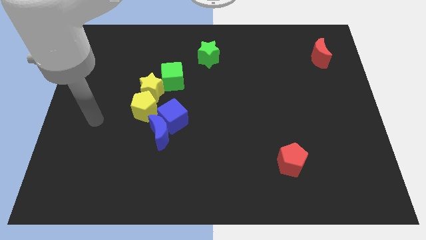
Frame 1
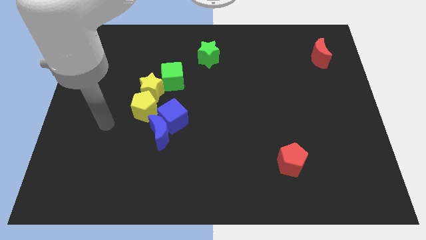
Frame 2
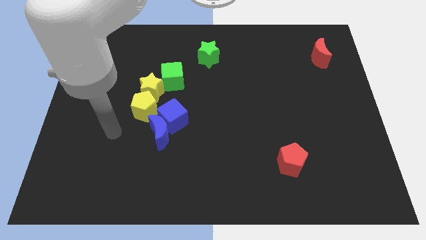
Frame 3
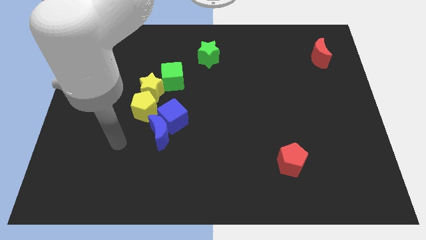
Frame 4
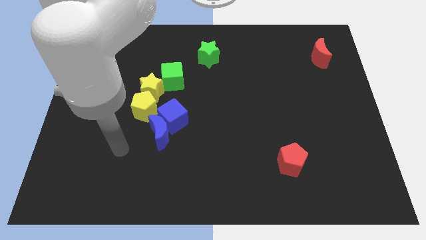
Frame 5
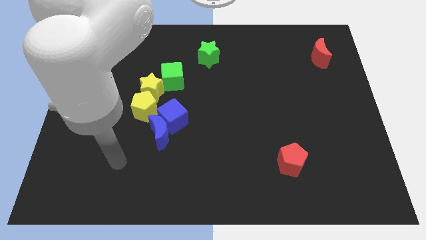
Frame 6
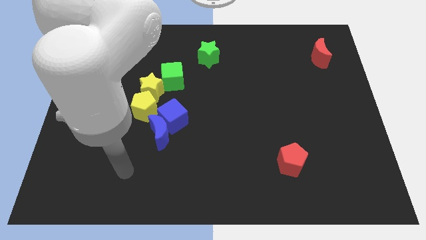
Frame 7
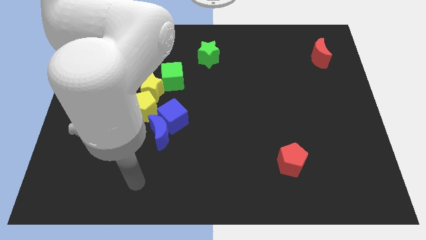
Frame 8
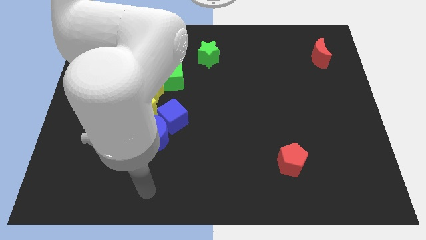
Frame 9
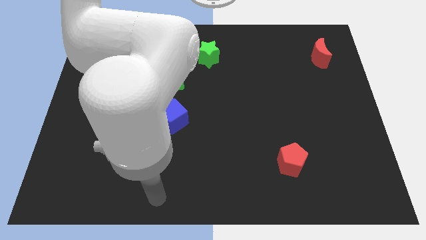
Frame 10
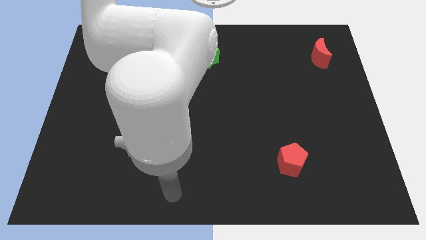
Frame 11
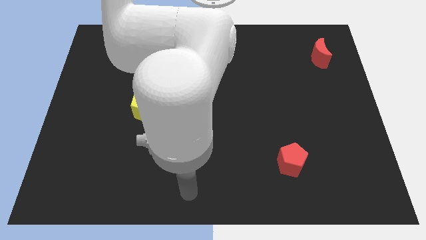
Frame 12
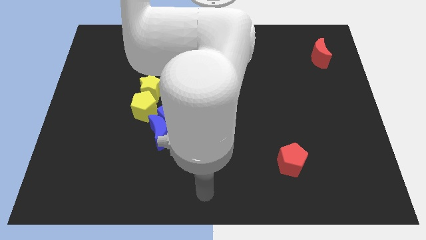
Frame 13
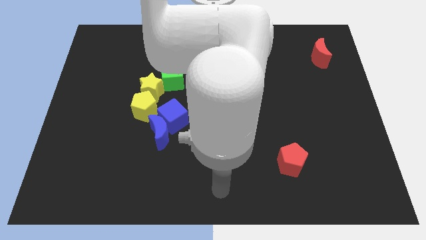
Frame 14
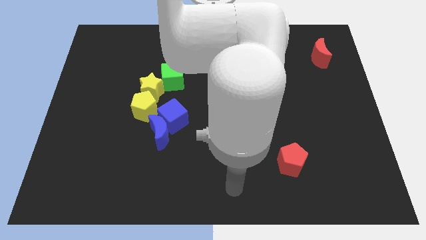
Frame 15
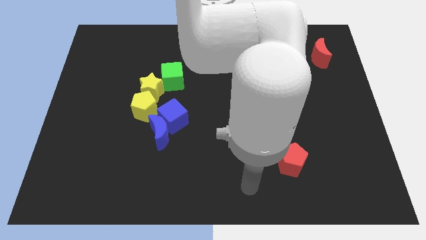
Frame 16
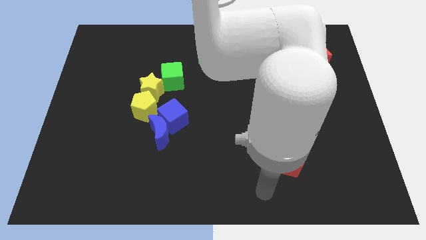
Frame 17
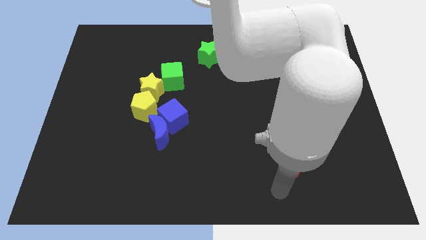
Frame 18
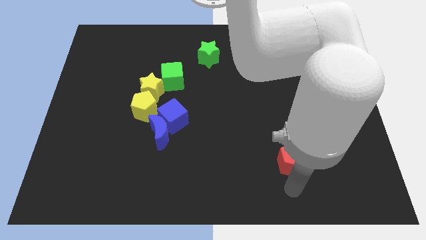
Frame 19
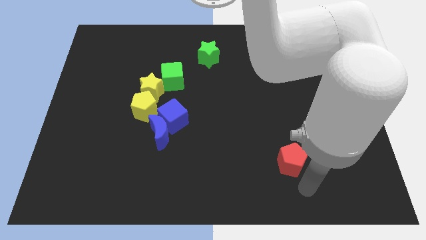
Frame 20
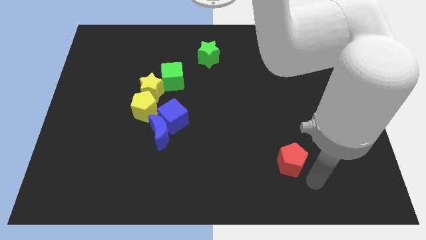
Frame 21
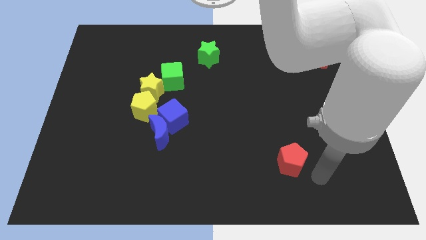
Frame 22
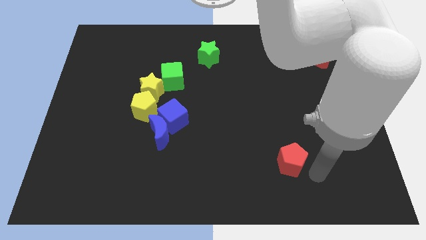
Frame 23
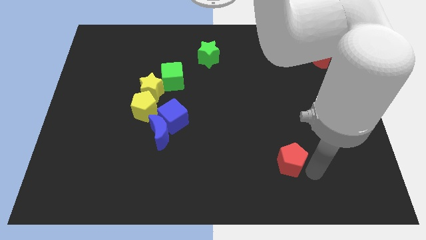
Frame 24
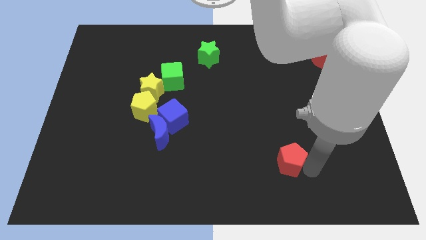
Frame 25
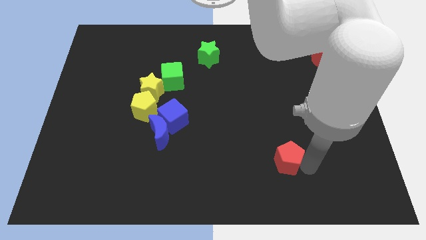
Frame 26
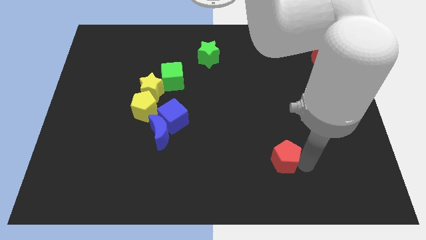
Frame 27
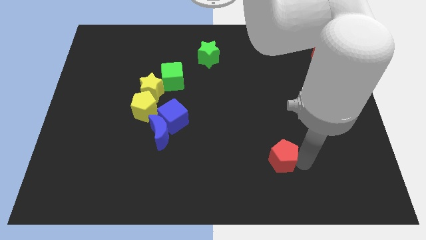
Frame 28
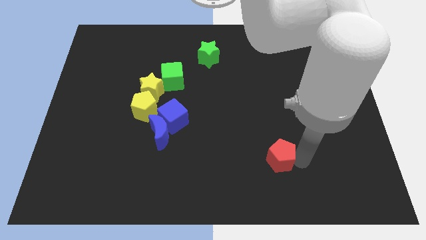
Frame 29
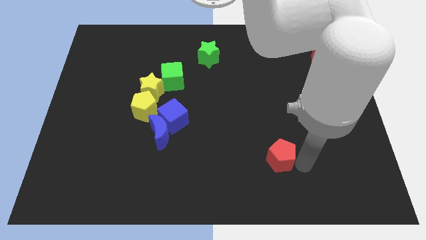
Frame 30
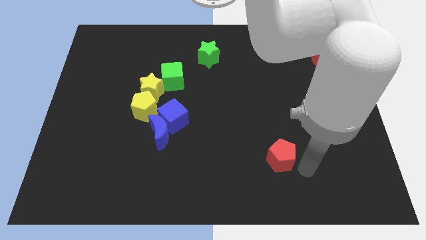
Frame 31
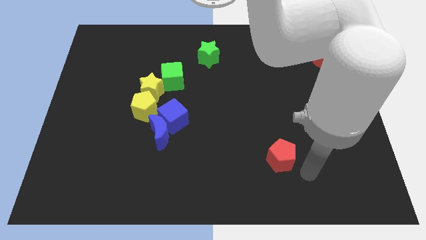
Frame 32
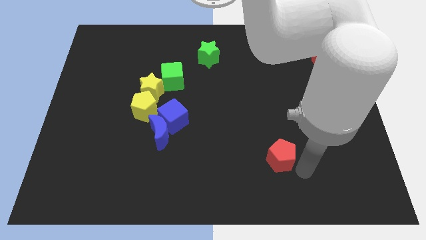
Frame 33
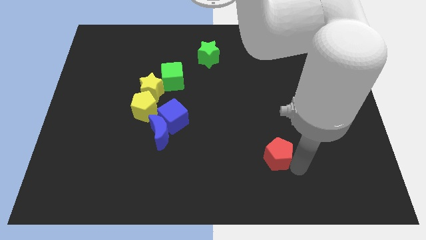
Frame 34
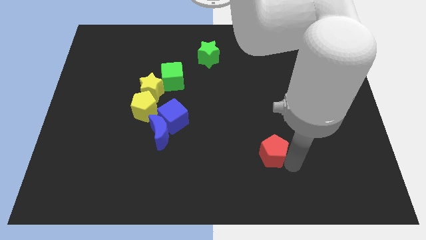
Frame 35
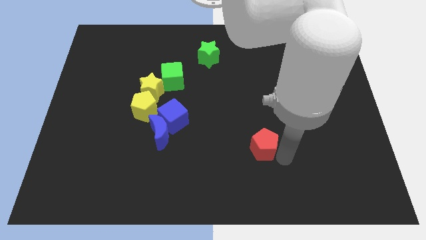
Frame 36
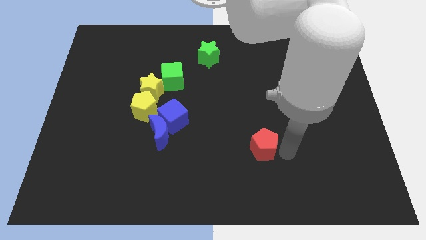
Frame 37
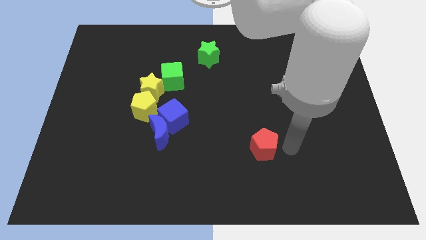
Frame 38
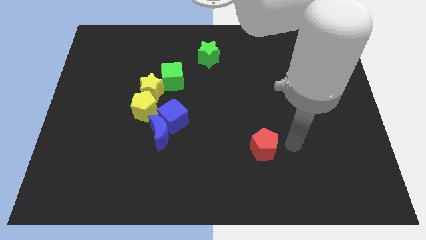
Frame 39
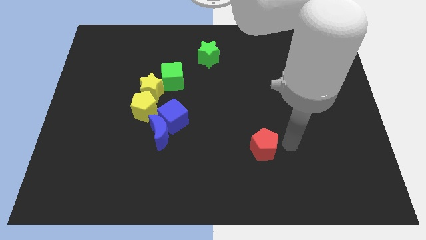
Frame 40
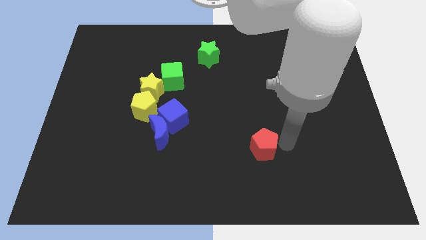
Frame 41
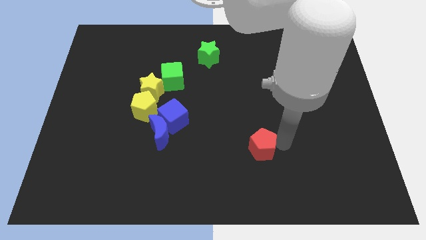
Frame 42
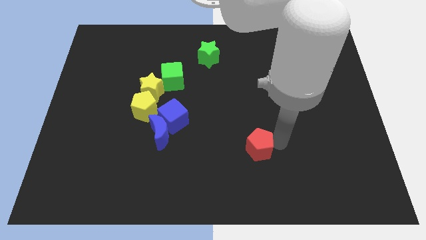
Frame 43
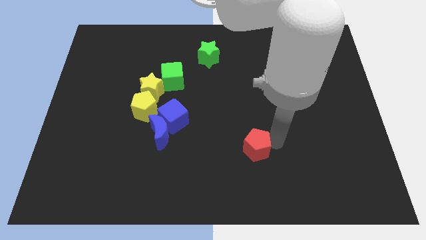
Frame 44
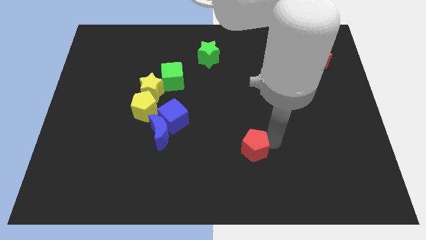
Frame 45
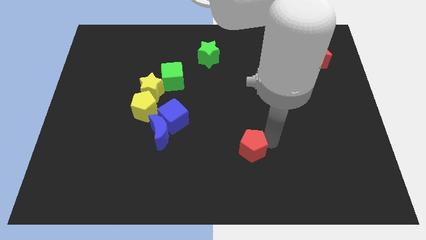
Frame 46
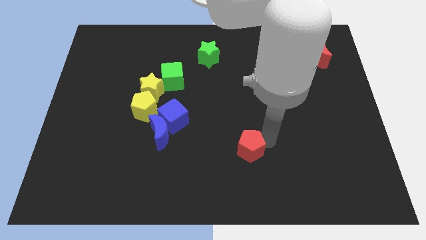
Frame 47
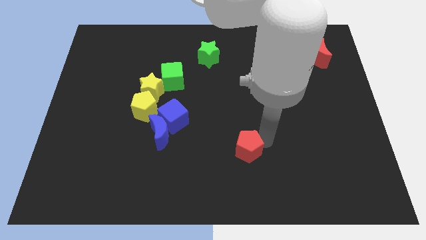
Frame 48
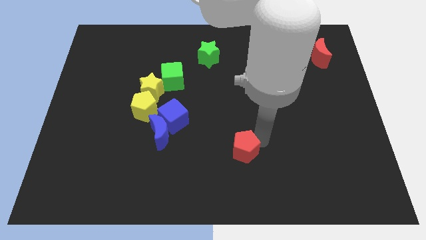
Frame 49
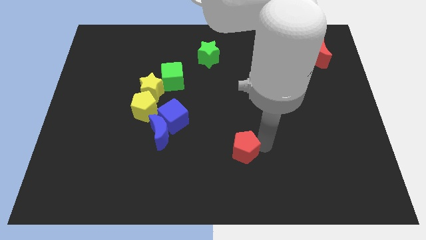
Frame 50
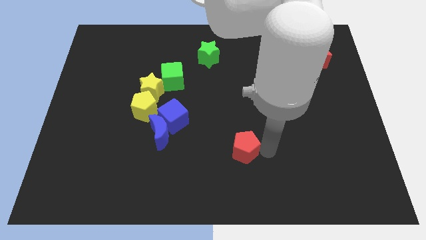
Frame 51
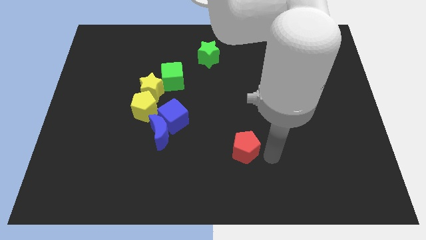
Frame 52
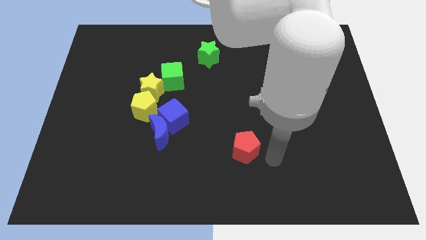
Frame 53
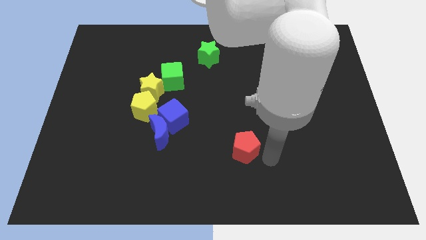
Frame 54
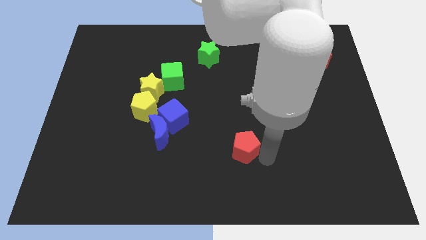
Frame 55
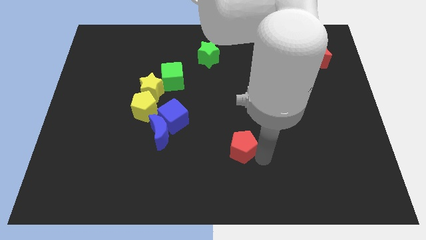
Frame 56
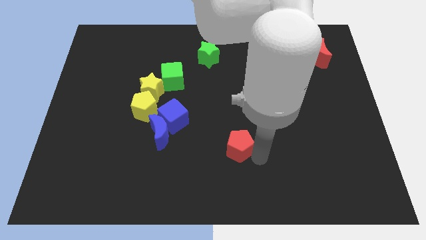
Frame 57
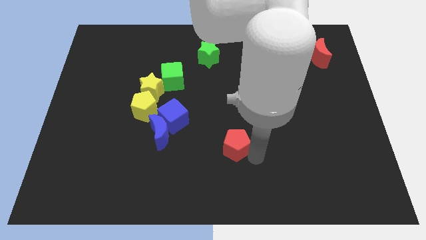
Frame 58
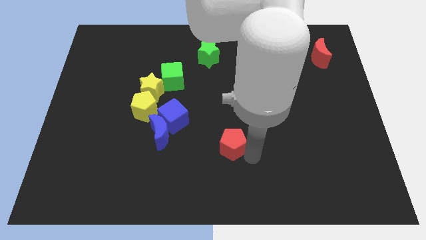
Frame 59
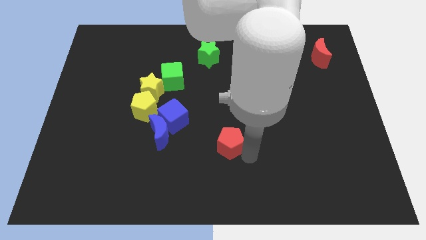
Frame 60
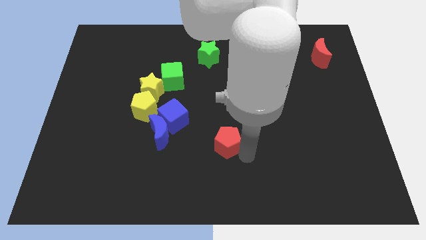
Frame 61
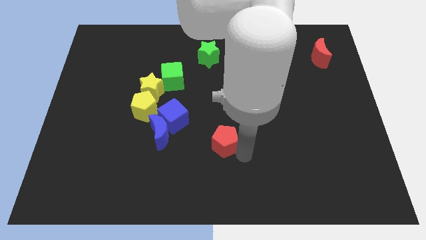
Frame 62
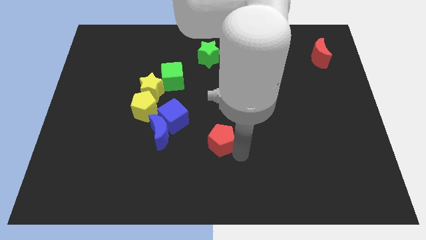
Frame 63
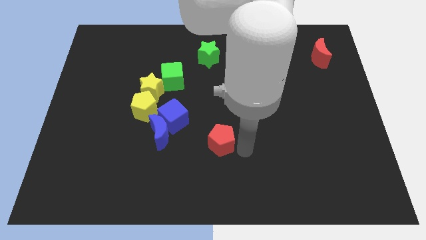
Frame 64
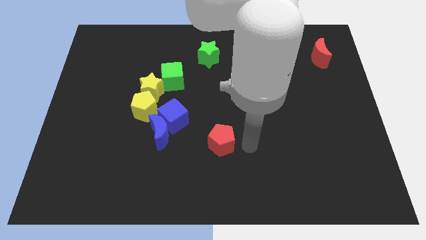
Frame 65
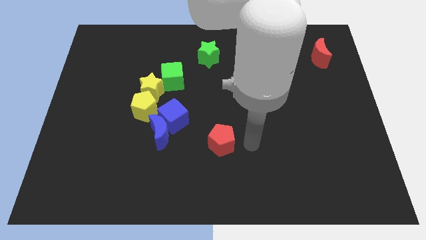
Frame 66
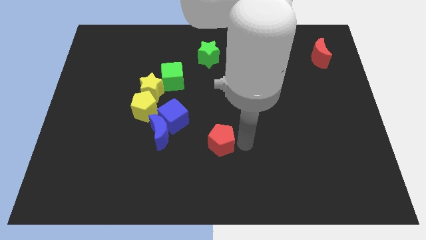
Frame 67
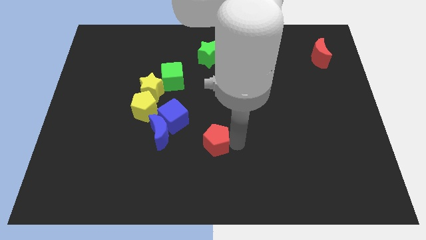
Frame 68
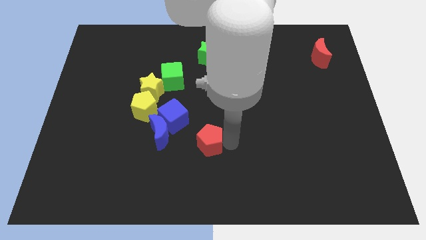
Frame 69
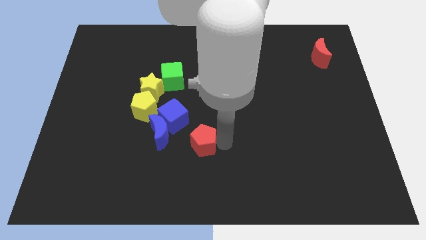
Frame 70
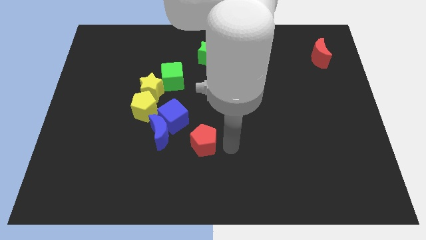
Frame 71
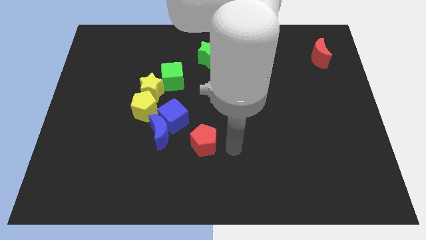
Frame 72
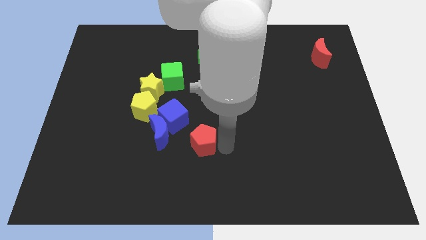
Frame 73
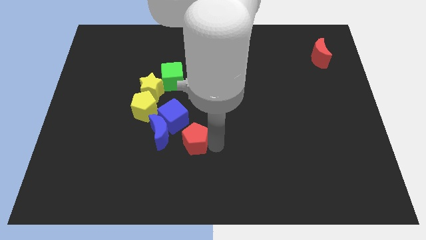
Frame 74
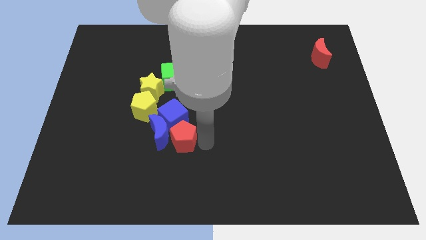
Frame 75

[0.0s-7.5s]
move the red pentagon next to the blue moon
